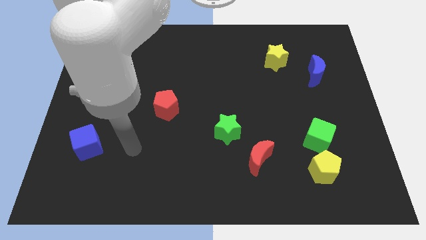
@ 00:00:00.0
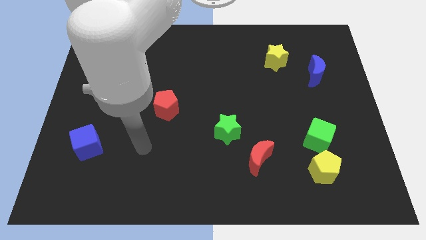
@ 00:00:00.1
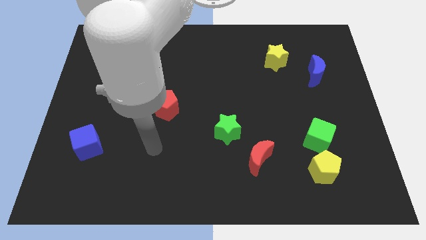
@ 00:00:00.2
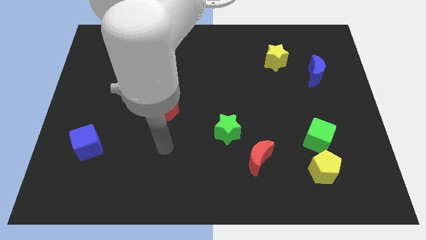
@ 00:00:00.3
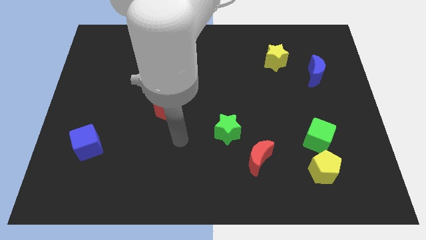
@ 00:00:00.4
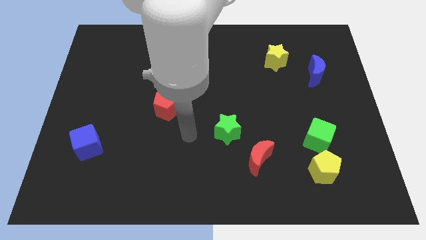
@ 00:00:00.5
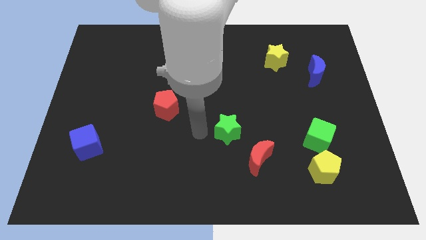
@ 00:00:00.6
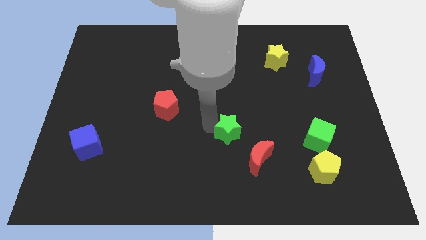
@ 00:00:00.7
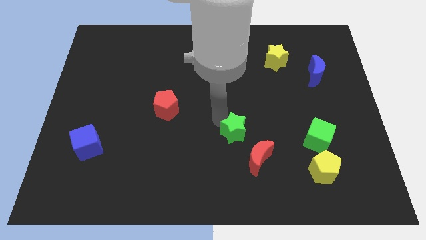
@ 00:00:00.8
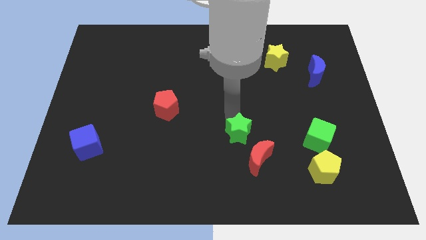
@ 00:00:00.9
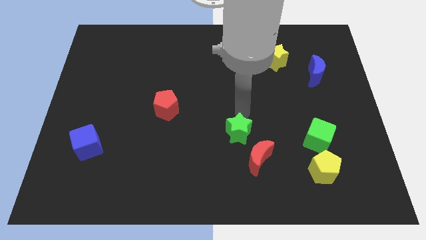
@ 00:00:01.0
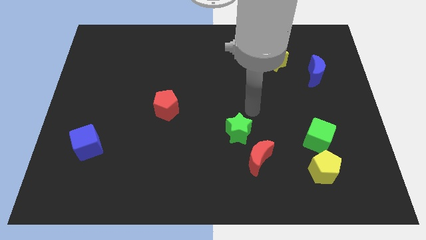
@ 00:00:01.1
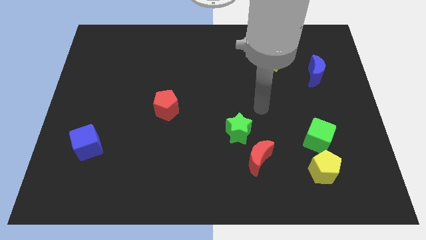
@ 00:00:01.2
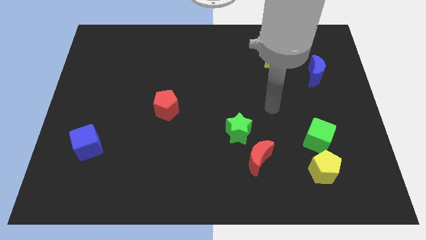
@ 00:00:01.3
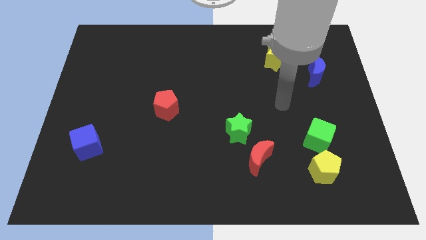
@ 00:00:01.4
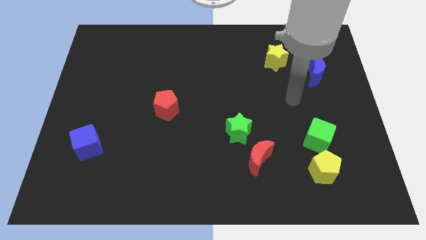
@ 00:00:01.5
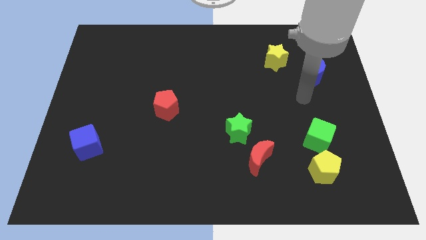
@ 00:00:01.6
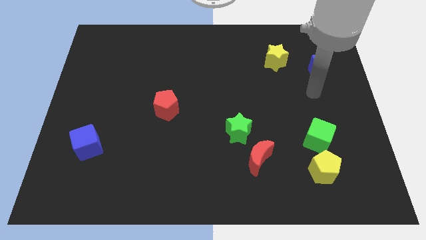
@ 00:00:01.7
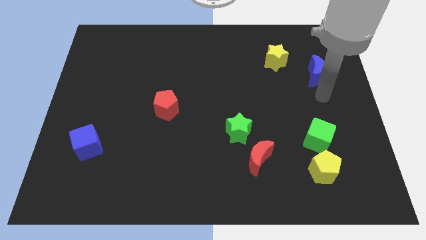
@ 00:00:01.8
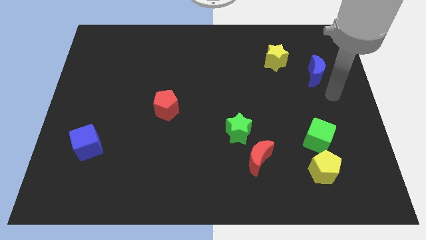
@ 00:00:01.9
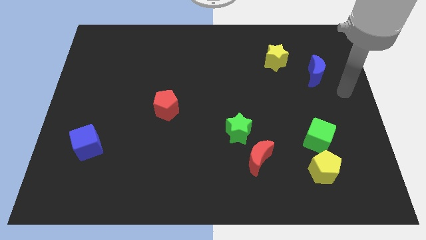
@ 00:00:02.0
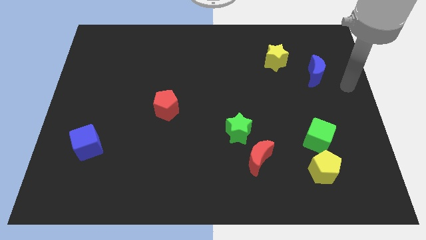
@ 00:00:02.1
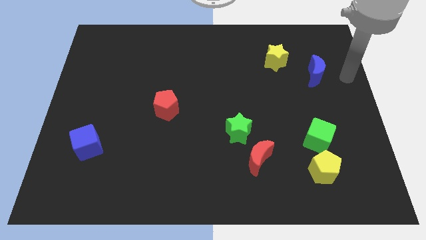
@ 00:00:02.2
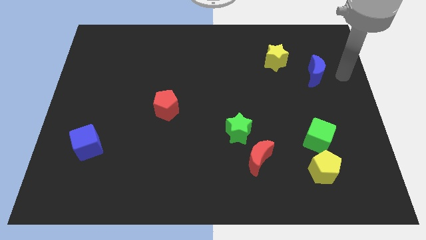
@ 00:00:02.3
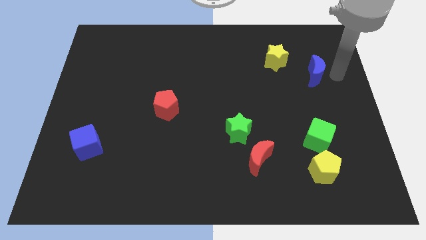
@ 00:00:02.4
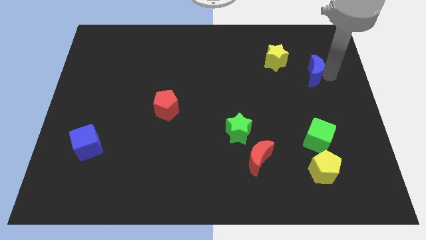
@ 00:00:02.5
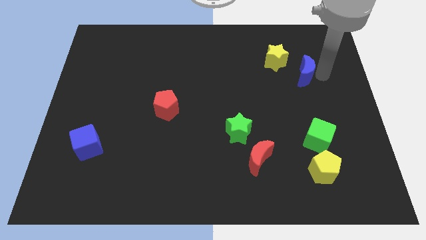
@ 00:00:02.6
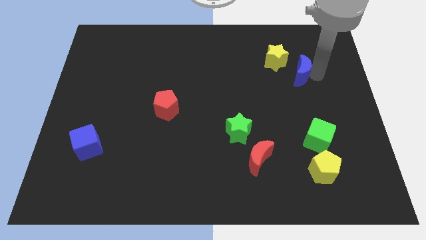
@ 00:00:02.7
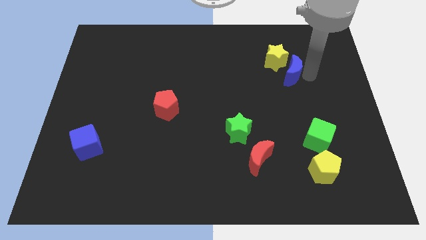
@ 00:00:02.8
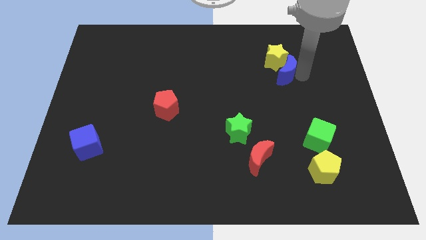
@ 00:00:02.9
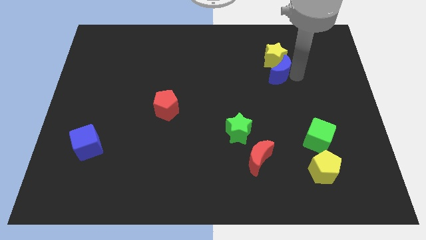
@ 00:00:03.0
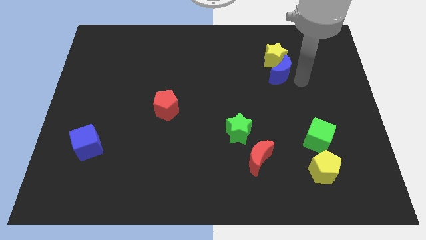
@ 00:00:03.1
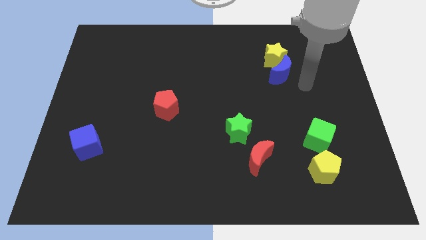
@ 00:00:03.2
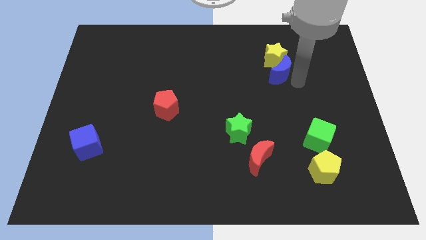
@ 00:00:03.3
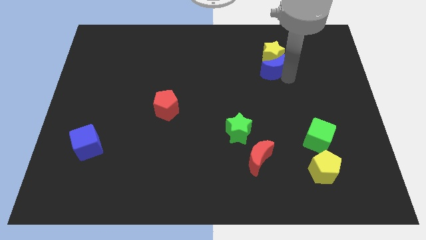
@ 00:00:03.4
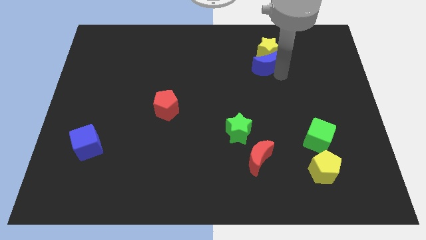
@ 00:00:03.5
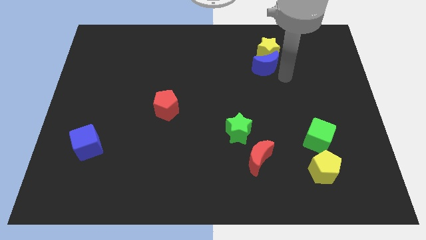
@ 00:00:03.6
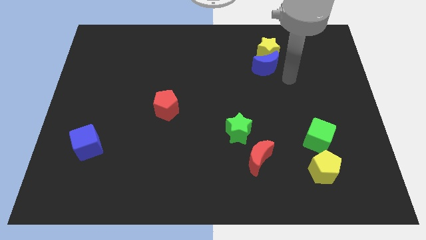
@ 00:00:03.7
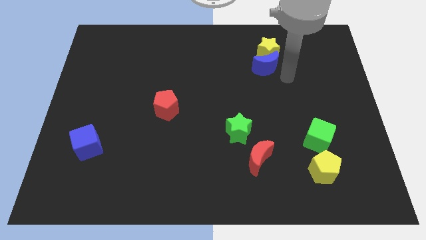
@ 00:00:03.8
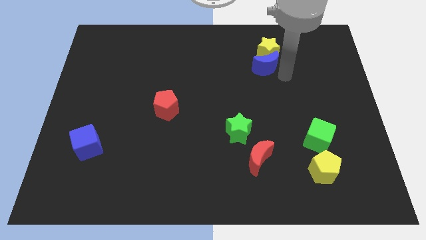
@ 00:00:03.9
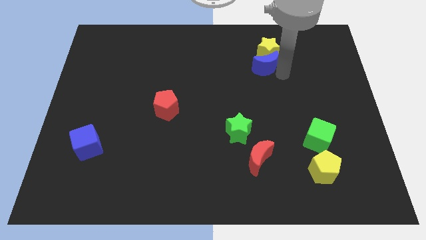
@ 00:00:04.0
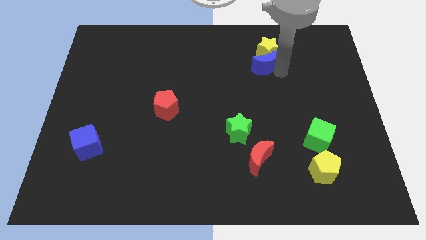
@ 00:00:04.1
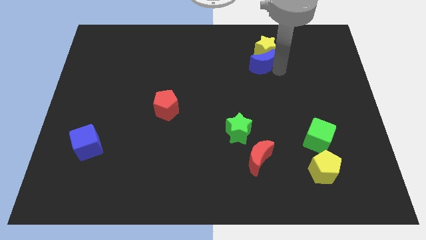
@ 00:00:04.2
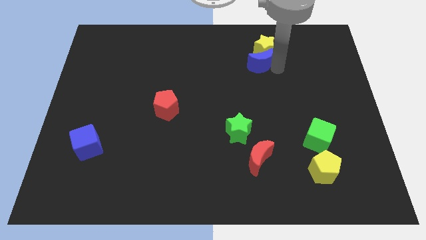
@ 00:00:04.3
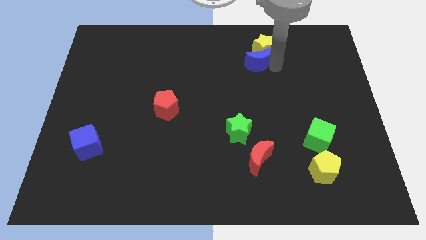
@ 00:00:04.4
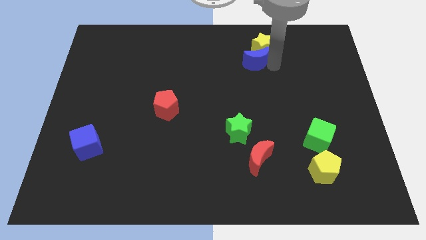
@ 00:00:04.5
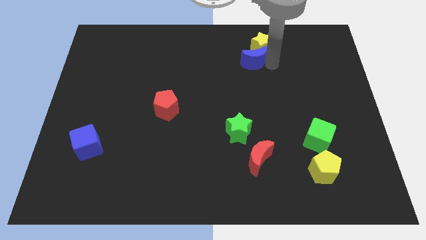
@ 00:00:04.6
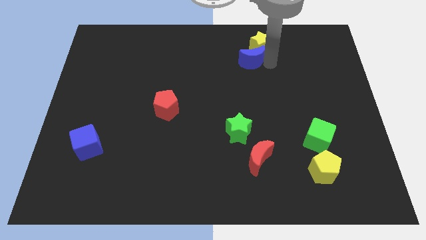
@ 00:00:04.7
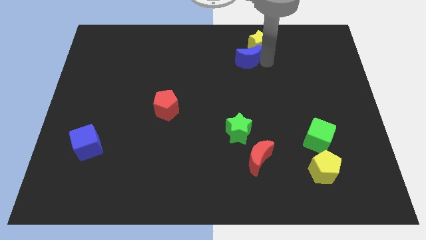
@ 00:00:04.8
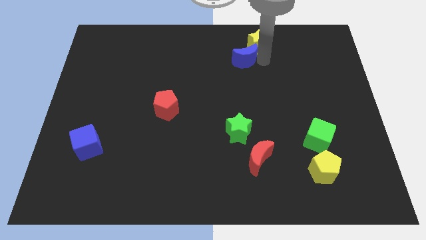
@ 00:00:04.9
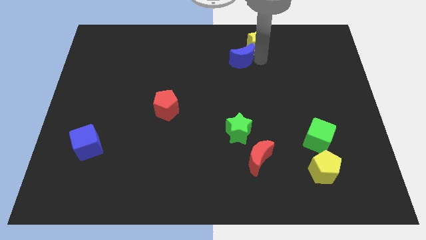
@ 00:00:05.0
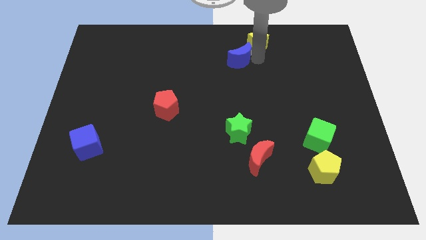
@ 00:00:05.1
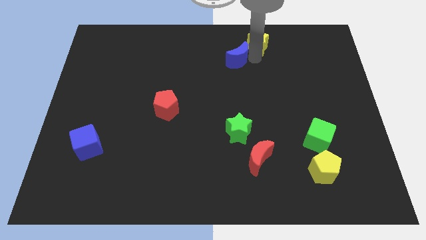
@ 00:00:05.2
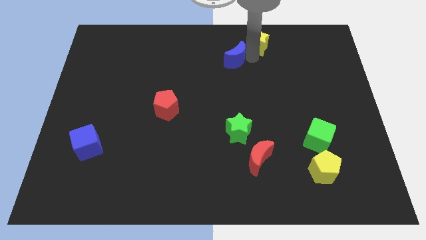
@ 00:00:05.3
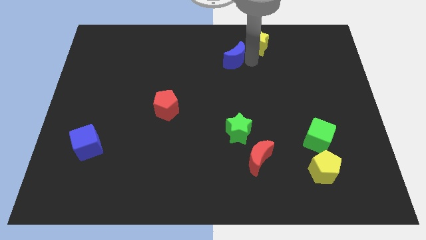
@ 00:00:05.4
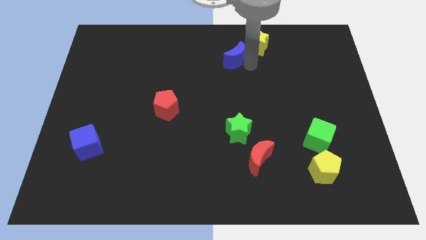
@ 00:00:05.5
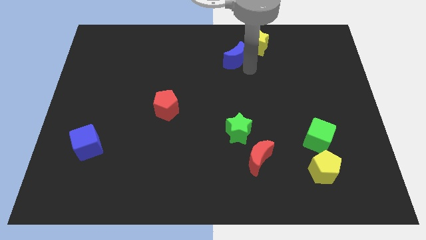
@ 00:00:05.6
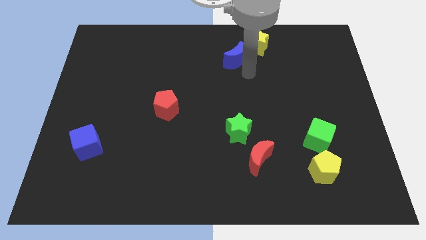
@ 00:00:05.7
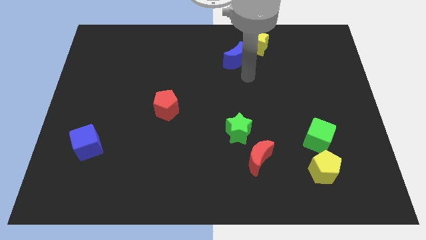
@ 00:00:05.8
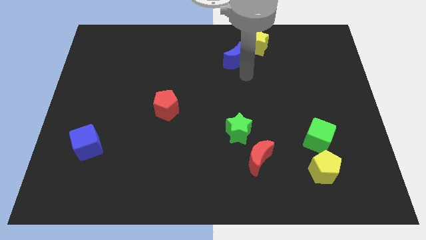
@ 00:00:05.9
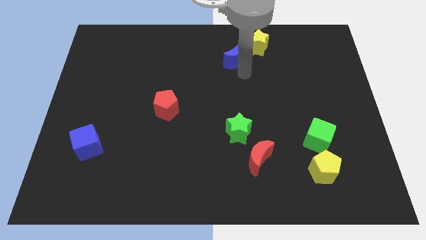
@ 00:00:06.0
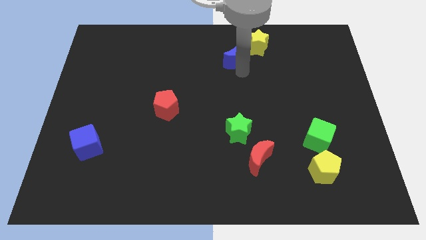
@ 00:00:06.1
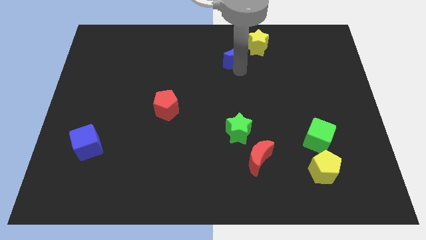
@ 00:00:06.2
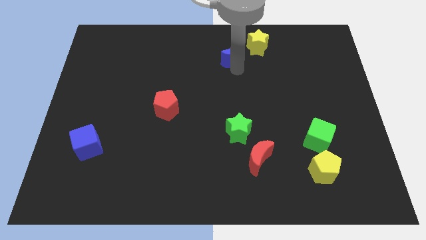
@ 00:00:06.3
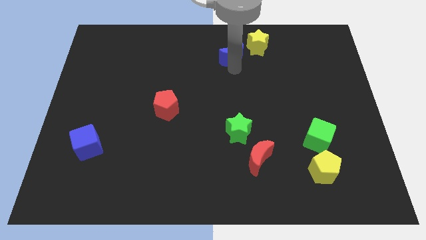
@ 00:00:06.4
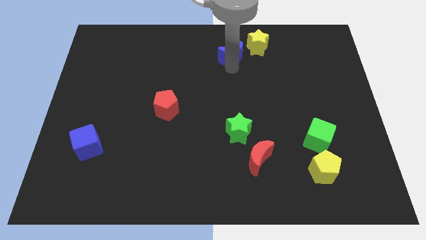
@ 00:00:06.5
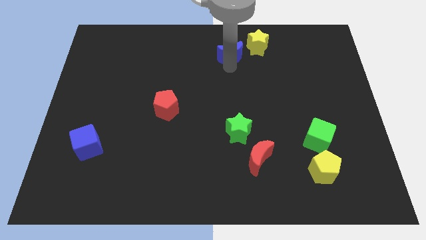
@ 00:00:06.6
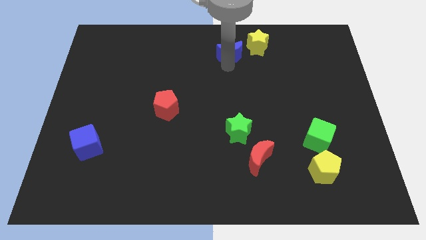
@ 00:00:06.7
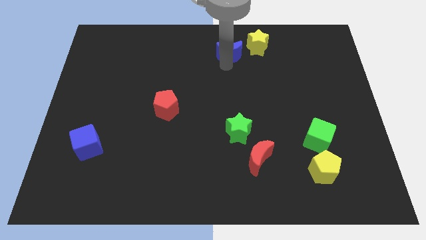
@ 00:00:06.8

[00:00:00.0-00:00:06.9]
put the blue moon to the top side
